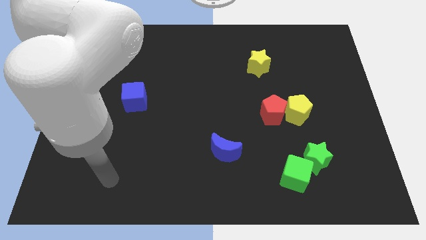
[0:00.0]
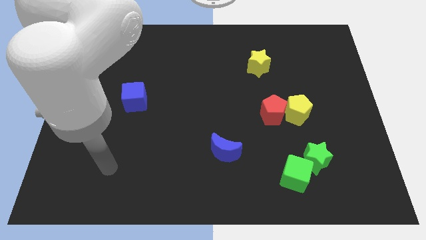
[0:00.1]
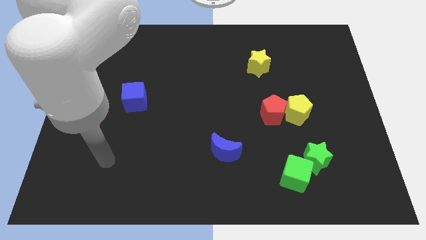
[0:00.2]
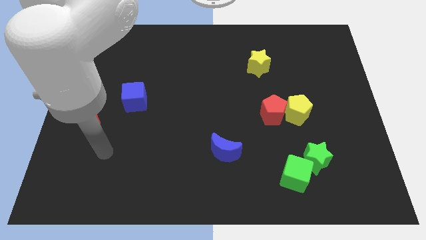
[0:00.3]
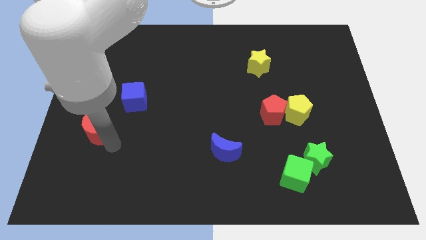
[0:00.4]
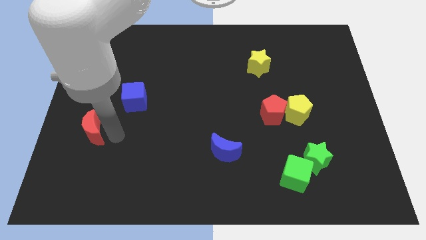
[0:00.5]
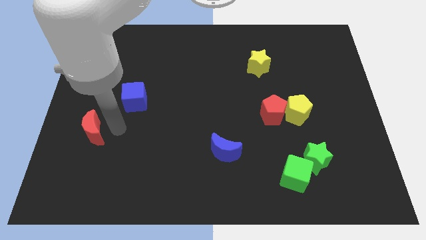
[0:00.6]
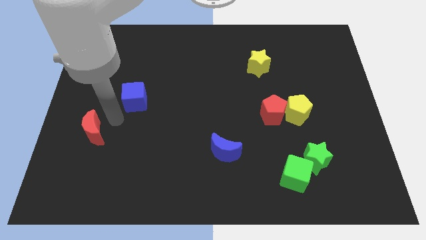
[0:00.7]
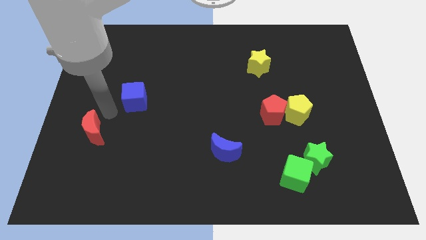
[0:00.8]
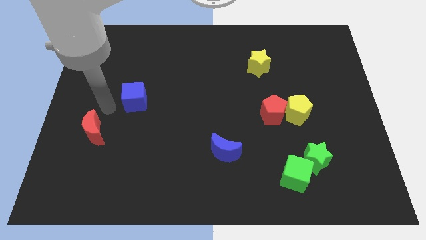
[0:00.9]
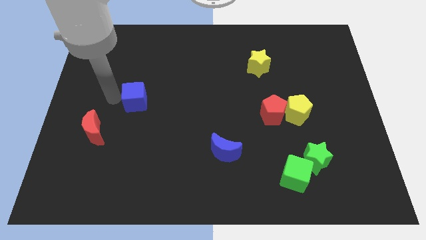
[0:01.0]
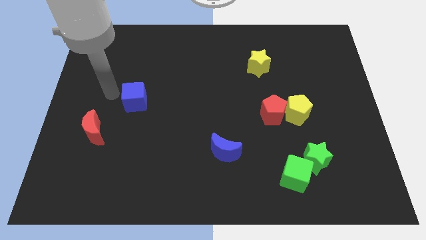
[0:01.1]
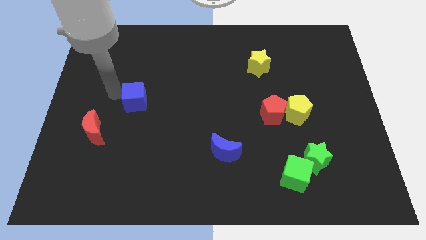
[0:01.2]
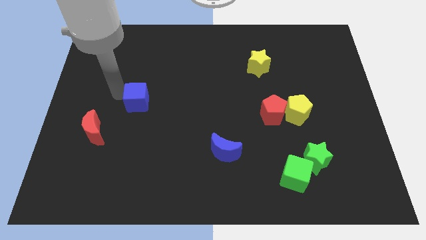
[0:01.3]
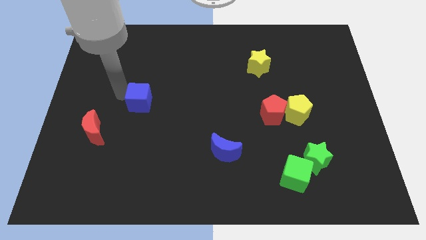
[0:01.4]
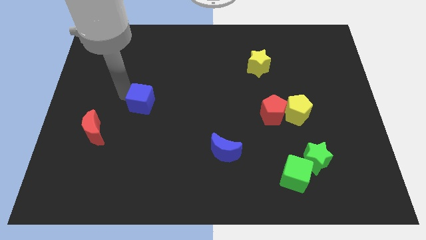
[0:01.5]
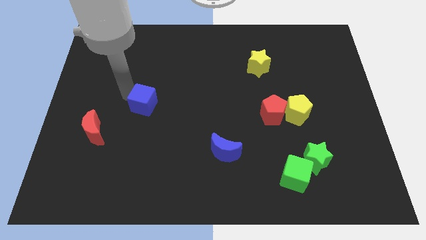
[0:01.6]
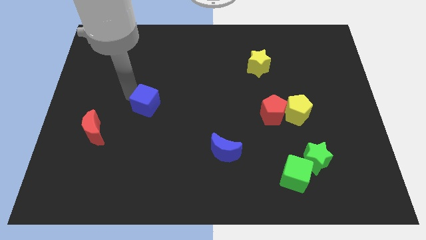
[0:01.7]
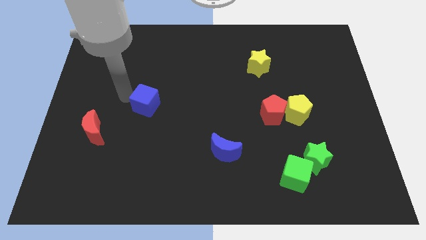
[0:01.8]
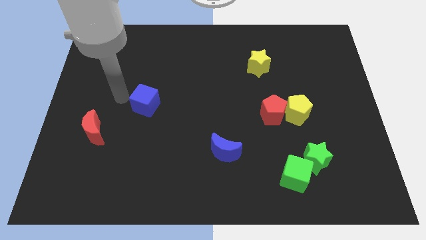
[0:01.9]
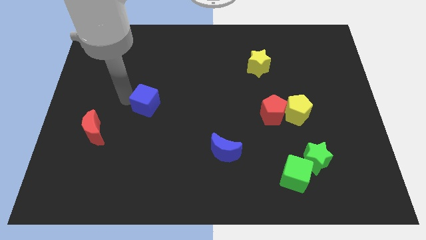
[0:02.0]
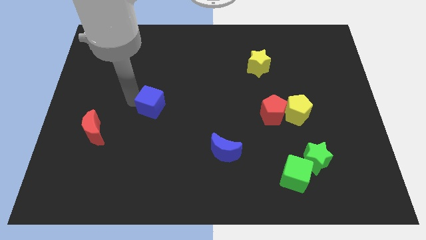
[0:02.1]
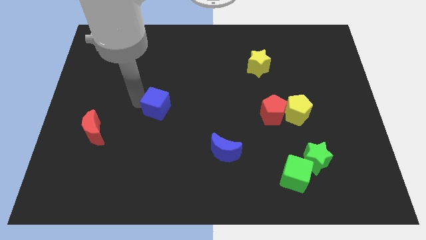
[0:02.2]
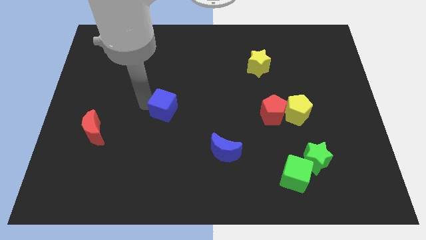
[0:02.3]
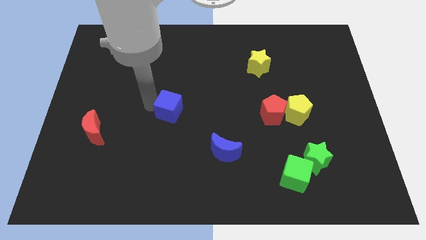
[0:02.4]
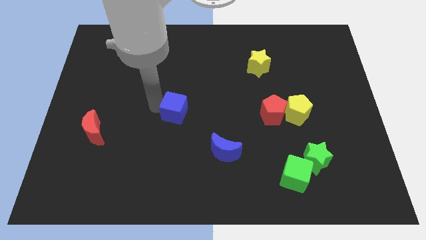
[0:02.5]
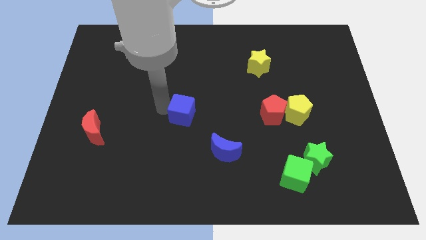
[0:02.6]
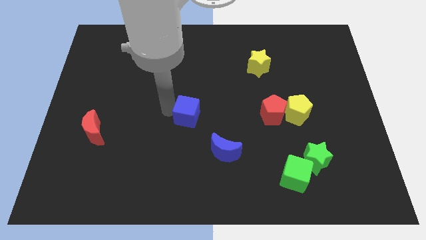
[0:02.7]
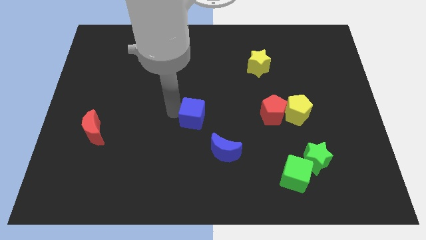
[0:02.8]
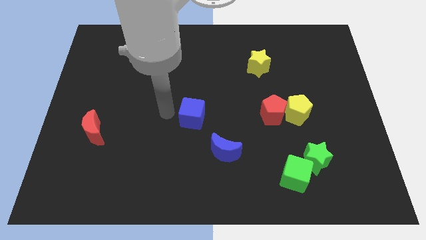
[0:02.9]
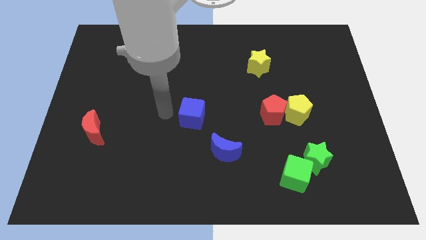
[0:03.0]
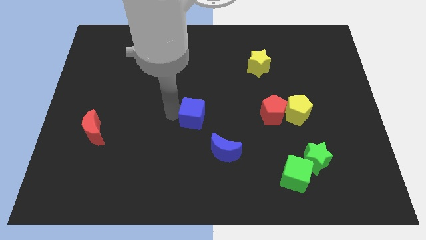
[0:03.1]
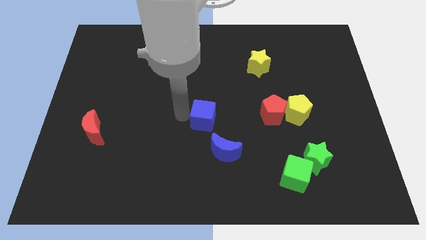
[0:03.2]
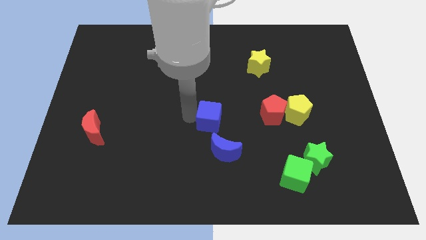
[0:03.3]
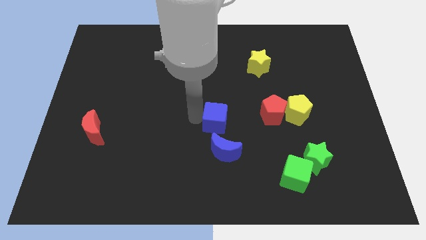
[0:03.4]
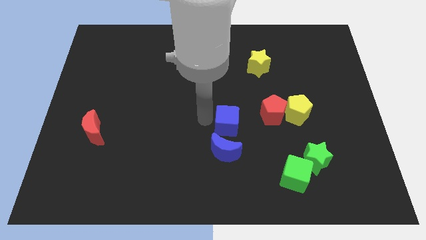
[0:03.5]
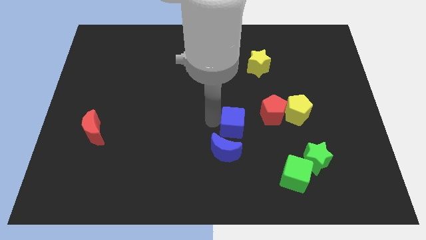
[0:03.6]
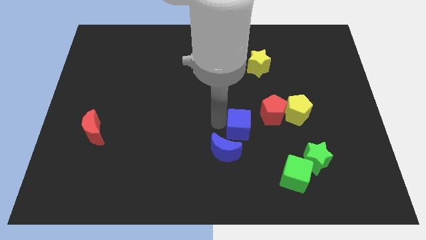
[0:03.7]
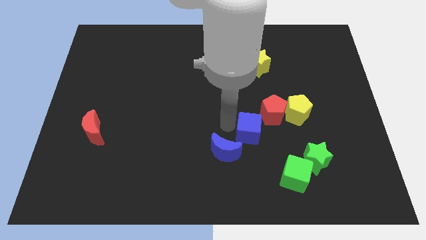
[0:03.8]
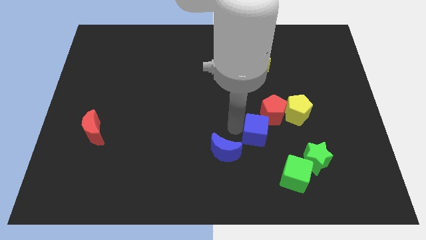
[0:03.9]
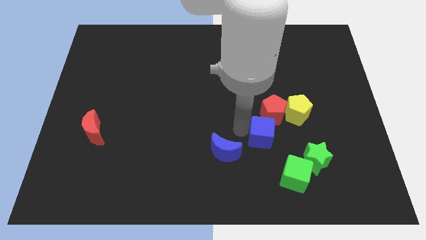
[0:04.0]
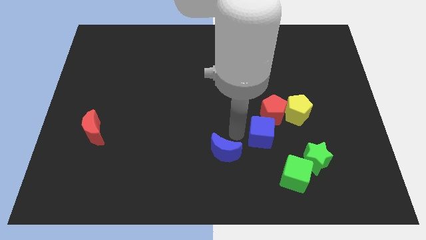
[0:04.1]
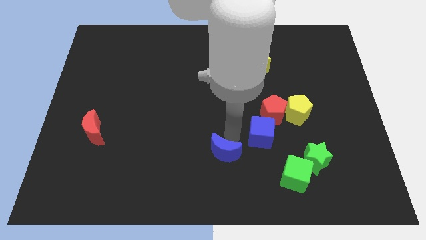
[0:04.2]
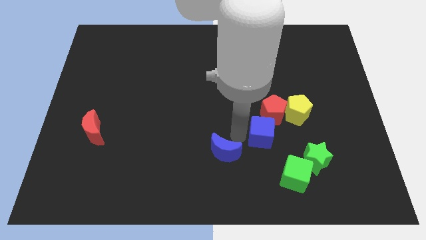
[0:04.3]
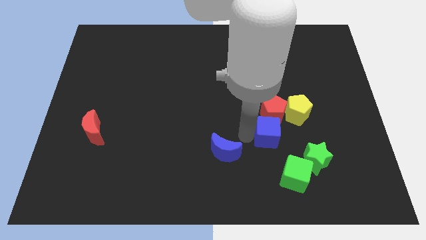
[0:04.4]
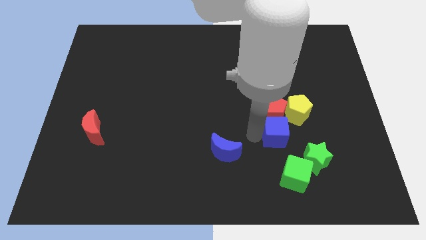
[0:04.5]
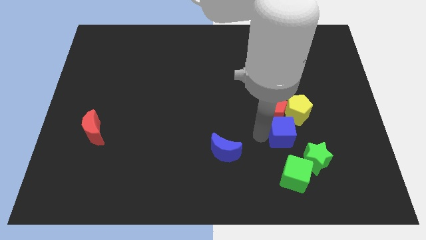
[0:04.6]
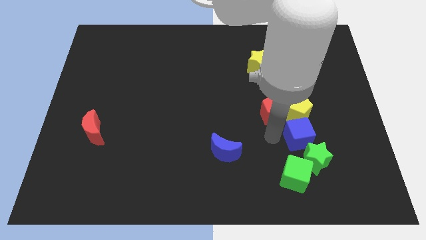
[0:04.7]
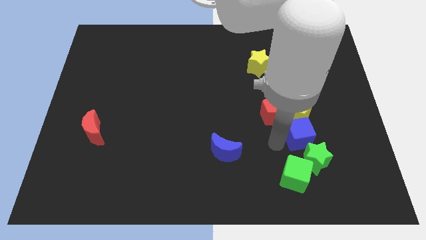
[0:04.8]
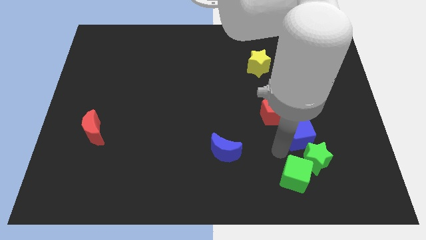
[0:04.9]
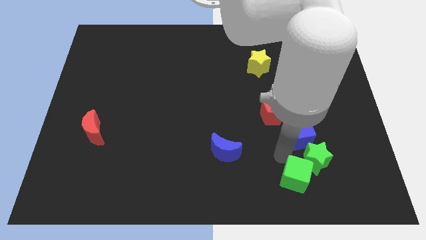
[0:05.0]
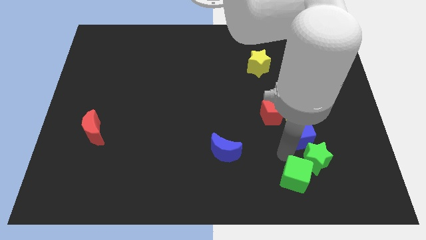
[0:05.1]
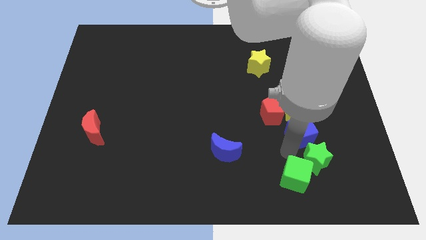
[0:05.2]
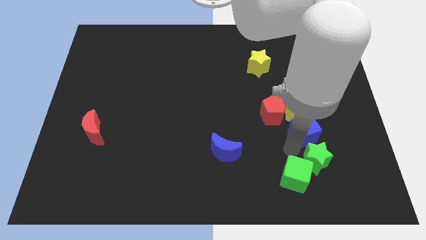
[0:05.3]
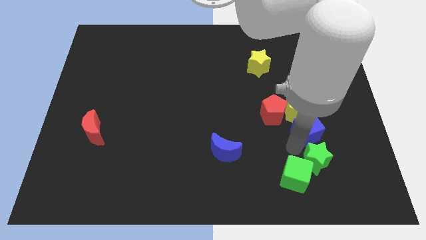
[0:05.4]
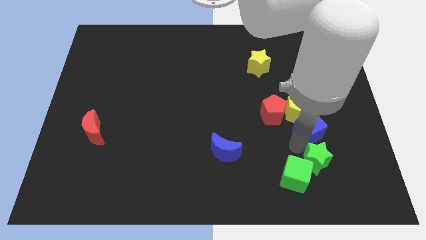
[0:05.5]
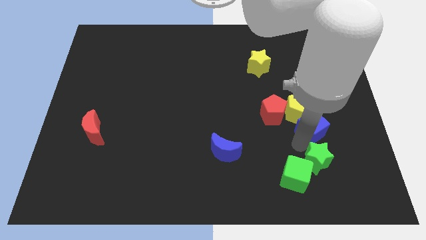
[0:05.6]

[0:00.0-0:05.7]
slide the blue cube to the right side of the red pentagon

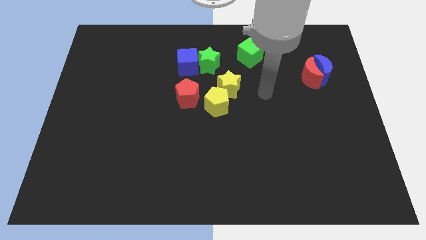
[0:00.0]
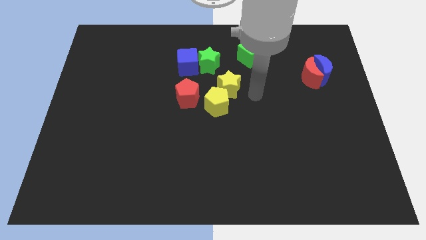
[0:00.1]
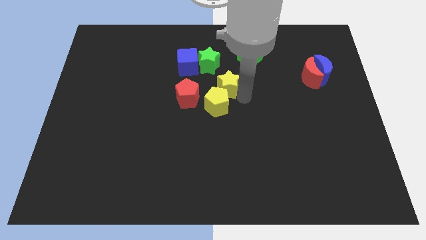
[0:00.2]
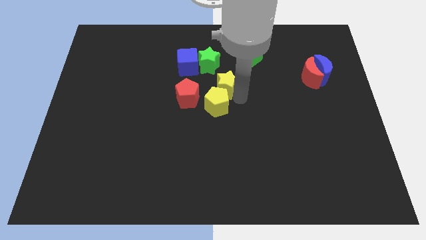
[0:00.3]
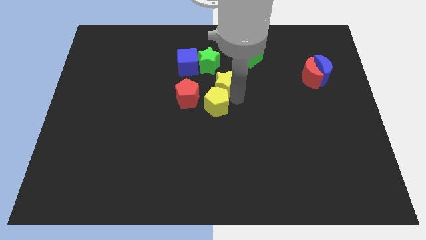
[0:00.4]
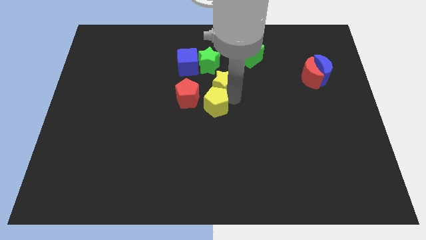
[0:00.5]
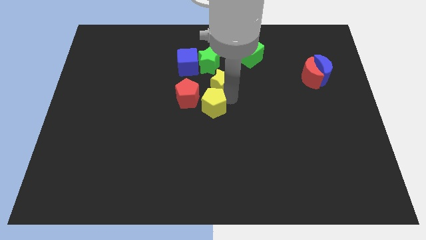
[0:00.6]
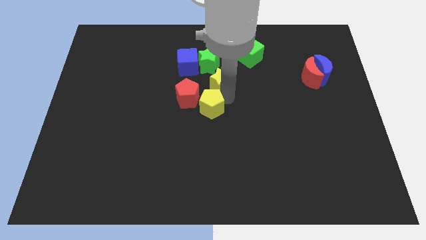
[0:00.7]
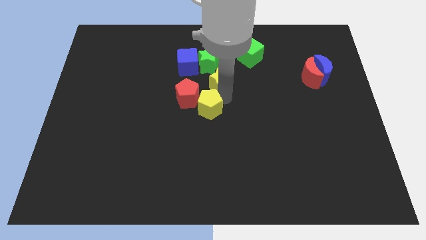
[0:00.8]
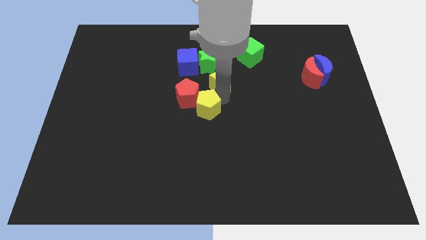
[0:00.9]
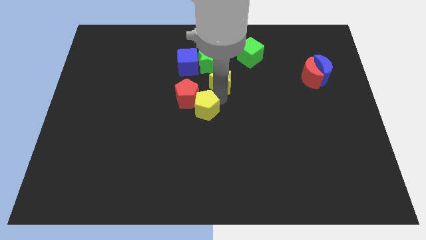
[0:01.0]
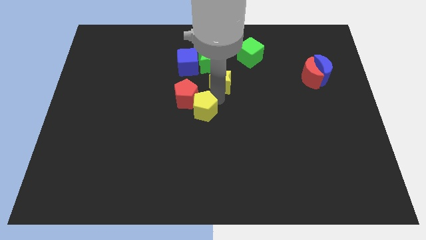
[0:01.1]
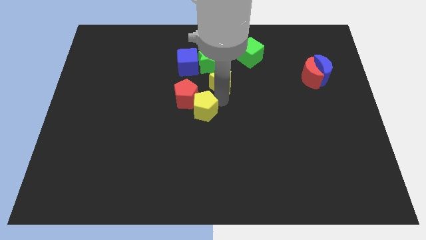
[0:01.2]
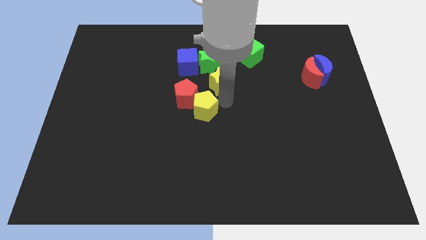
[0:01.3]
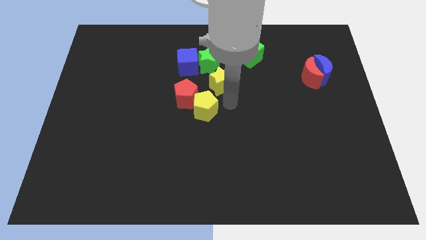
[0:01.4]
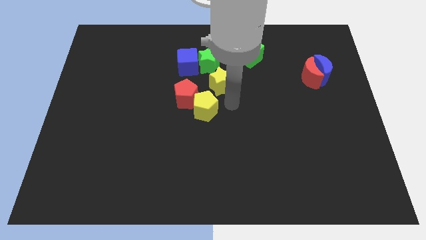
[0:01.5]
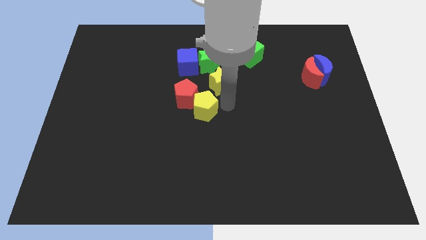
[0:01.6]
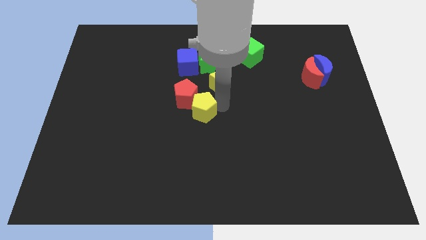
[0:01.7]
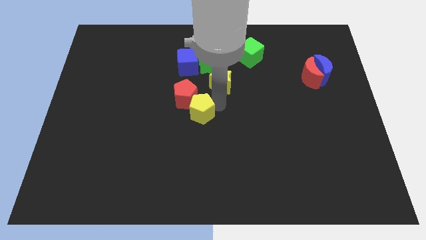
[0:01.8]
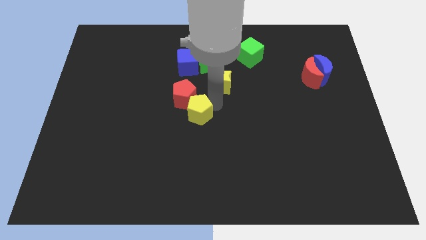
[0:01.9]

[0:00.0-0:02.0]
push the yellow pentagon to the bottom side of the blue cube
